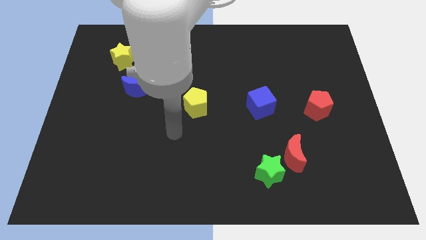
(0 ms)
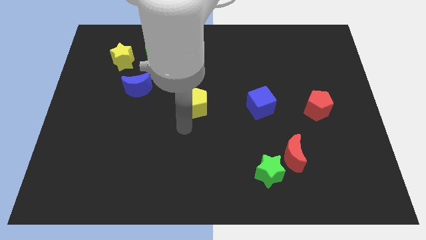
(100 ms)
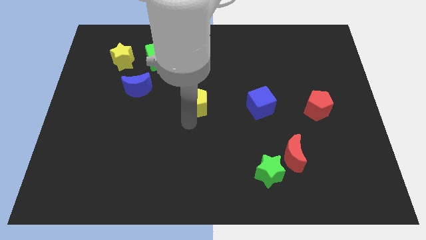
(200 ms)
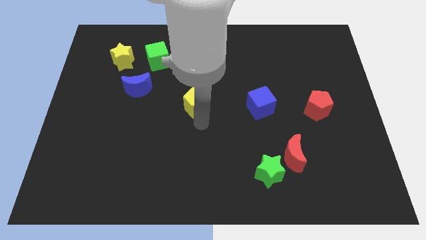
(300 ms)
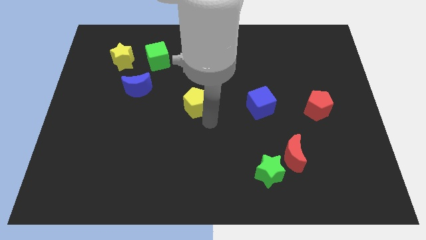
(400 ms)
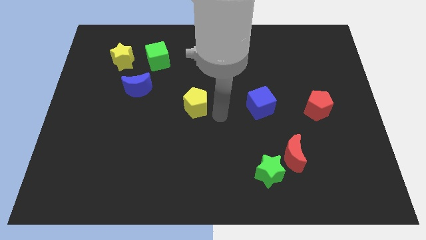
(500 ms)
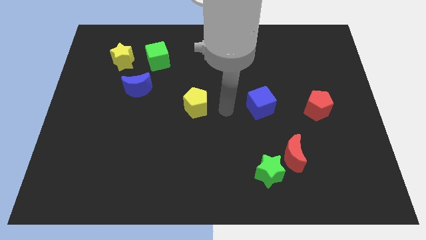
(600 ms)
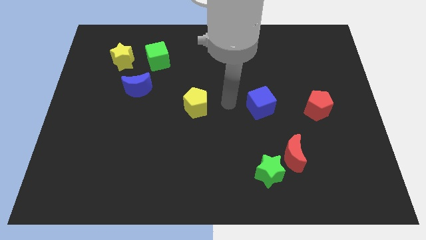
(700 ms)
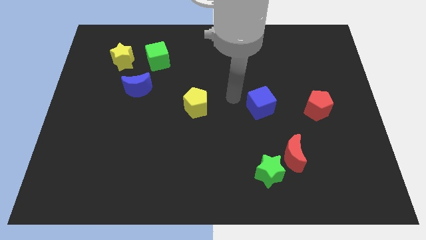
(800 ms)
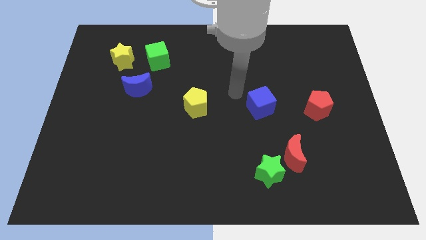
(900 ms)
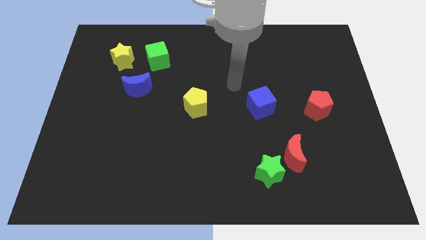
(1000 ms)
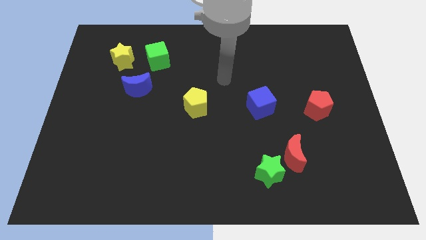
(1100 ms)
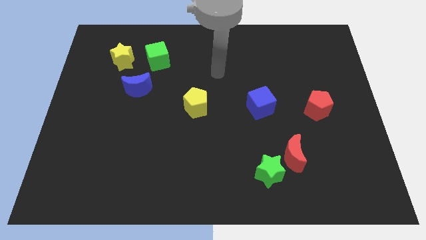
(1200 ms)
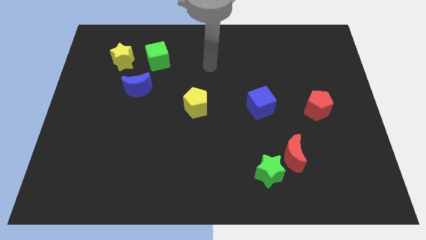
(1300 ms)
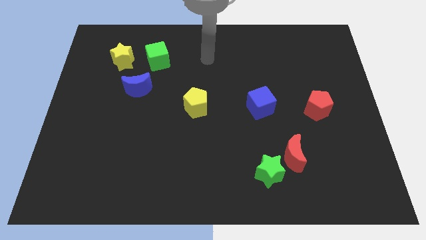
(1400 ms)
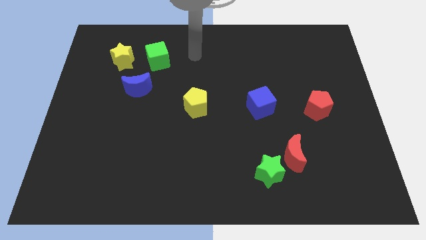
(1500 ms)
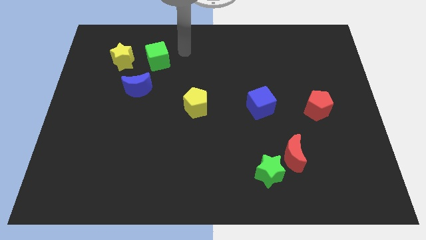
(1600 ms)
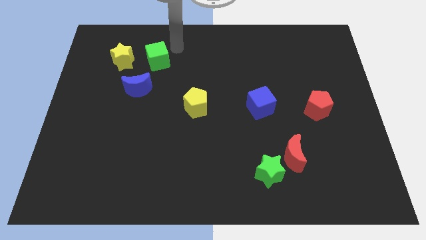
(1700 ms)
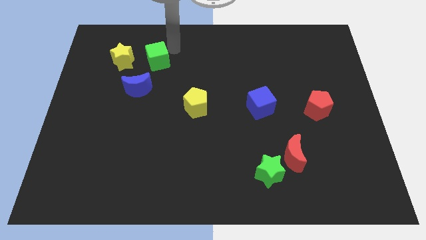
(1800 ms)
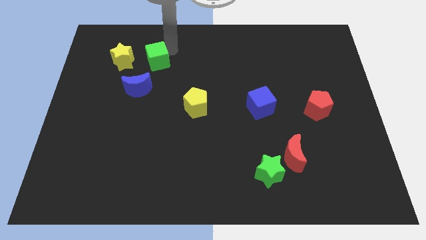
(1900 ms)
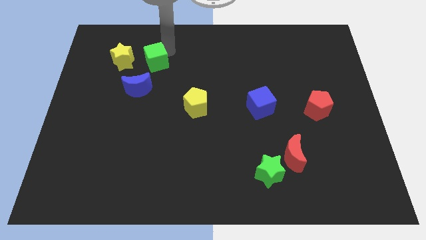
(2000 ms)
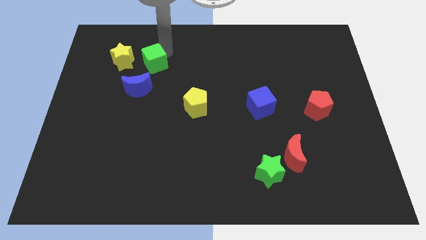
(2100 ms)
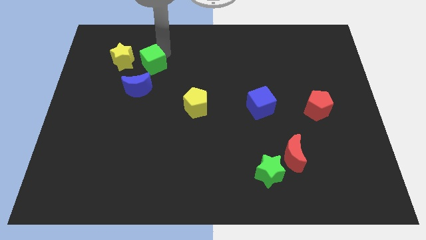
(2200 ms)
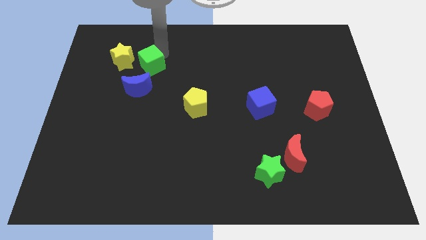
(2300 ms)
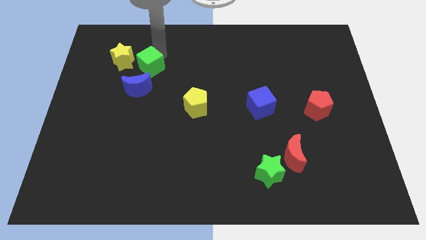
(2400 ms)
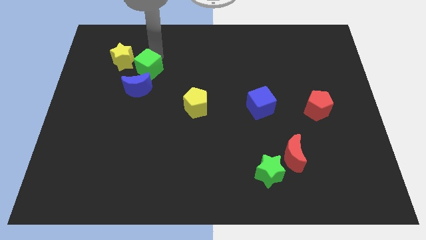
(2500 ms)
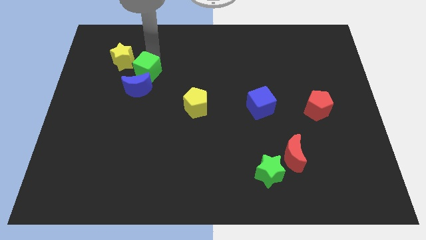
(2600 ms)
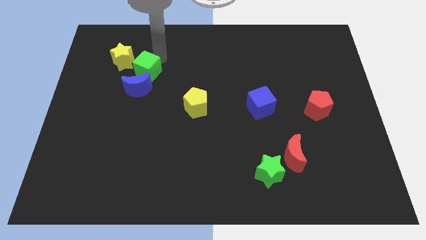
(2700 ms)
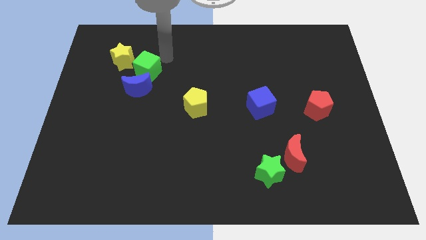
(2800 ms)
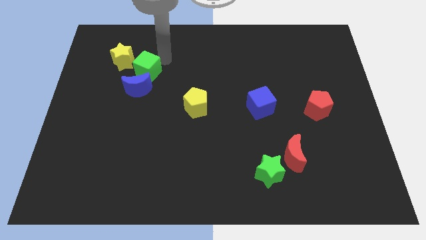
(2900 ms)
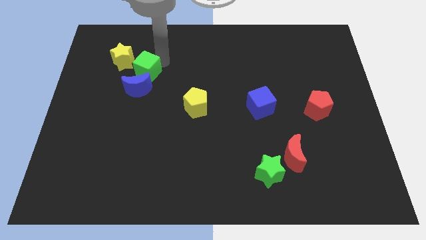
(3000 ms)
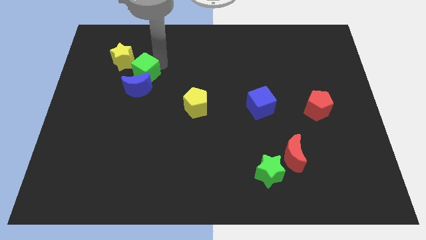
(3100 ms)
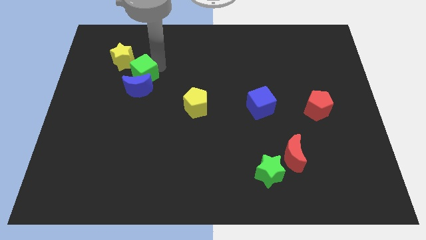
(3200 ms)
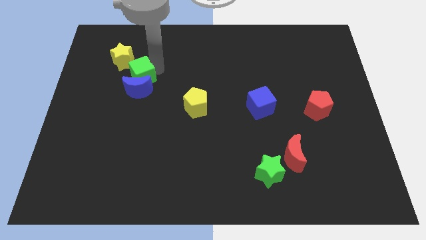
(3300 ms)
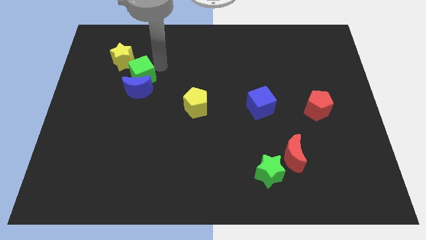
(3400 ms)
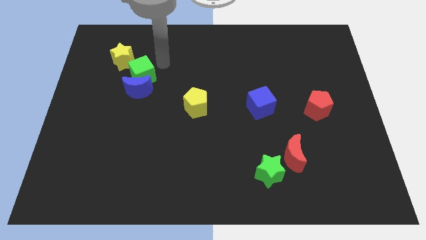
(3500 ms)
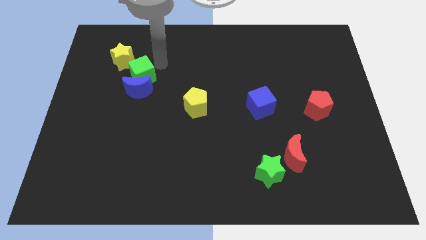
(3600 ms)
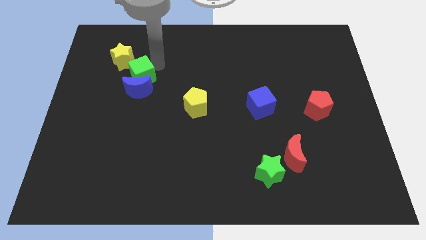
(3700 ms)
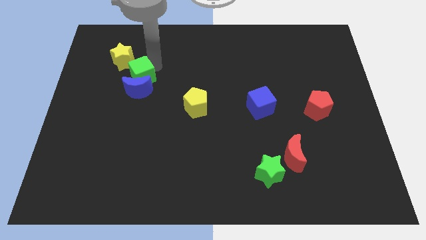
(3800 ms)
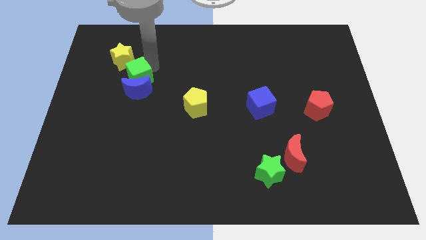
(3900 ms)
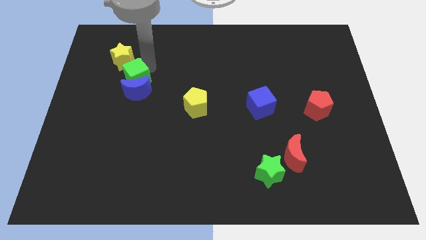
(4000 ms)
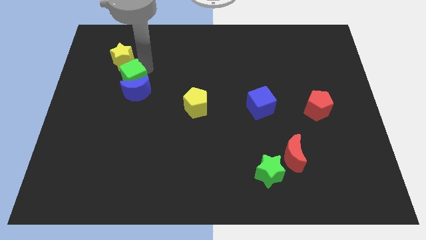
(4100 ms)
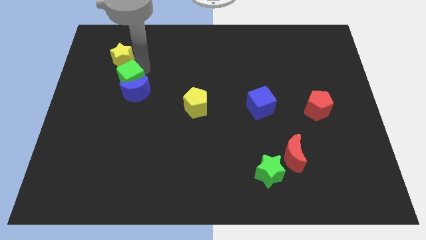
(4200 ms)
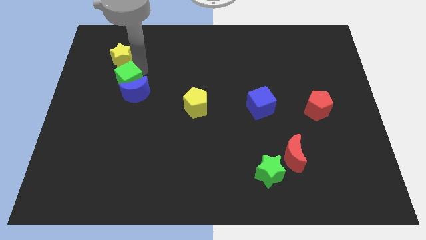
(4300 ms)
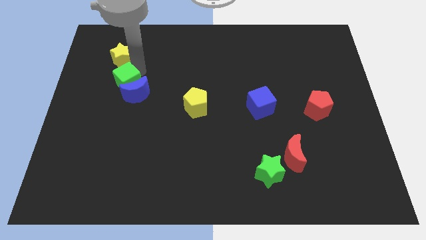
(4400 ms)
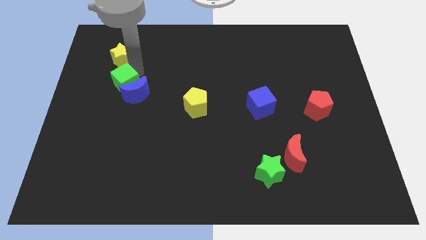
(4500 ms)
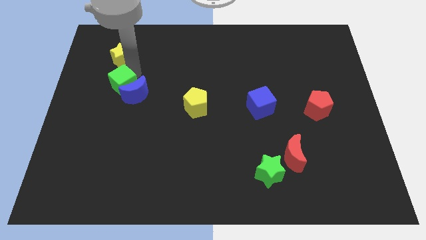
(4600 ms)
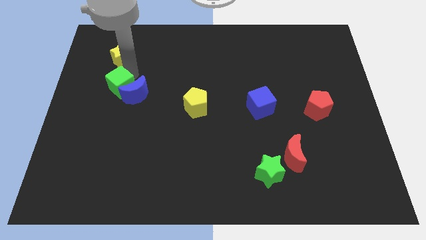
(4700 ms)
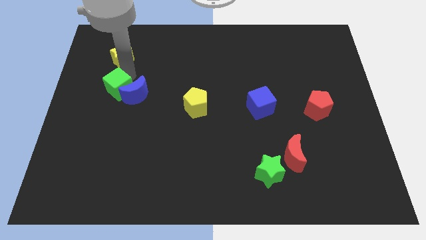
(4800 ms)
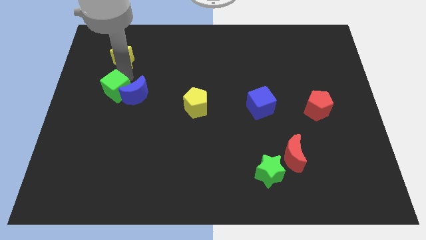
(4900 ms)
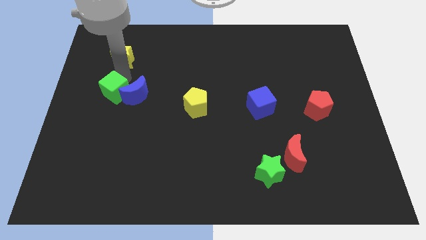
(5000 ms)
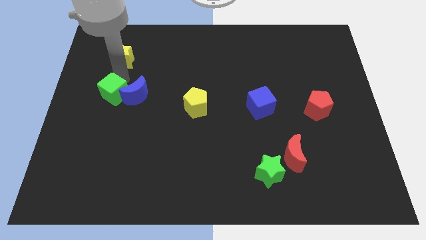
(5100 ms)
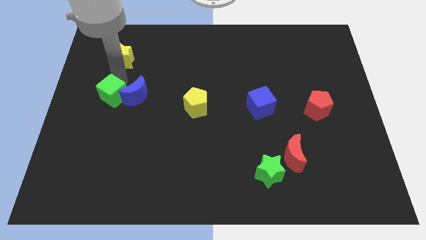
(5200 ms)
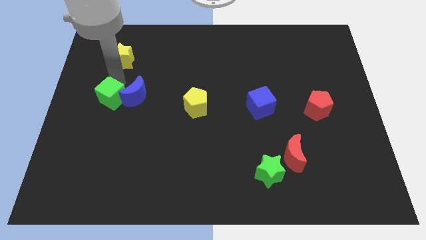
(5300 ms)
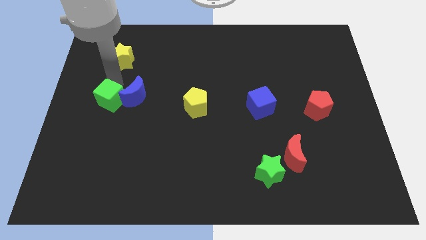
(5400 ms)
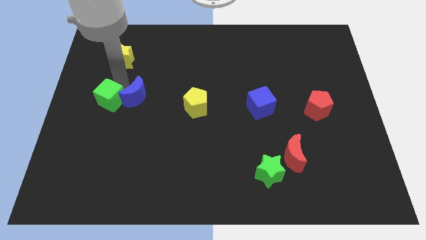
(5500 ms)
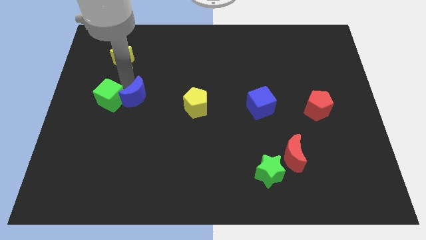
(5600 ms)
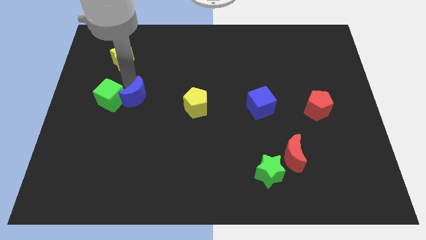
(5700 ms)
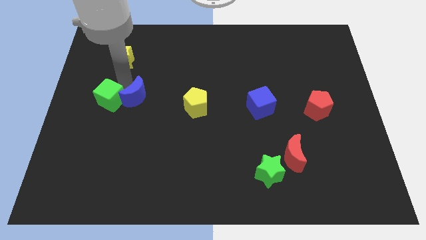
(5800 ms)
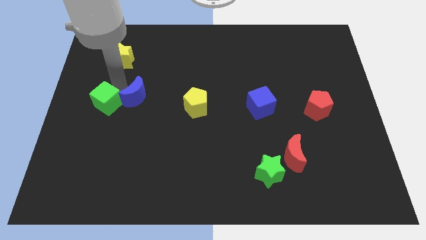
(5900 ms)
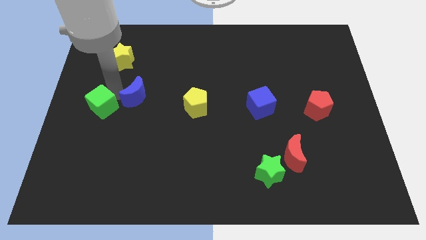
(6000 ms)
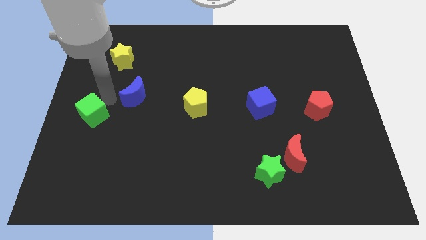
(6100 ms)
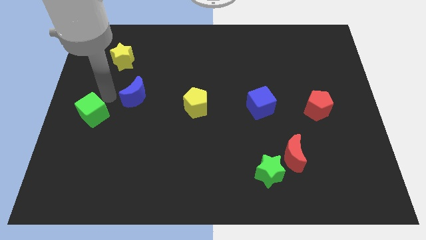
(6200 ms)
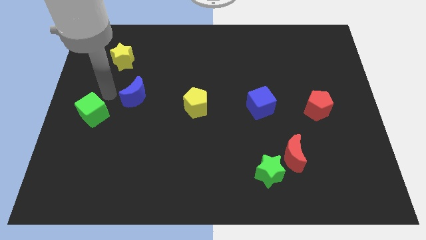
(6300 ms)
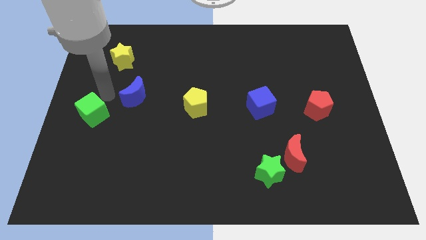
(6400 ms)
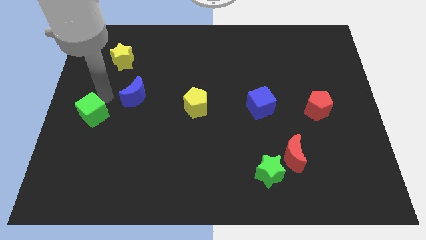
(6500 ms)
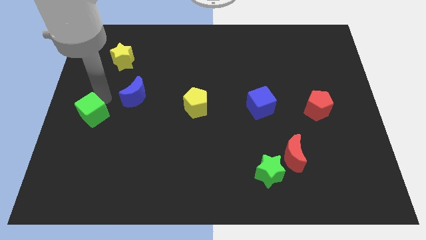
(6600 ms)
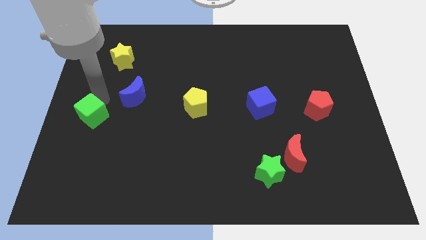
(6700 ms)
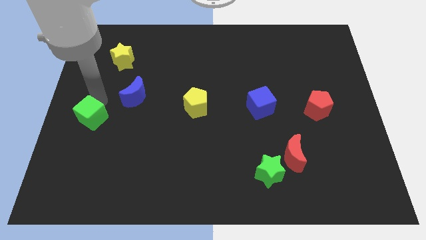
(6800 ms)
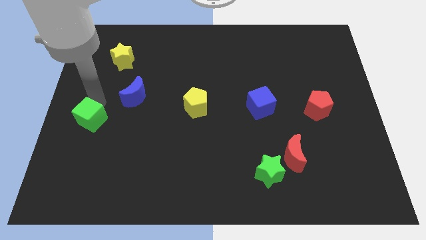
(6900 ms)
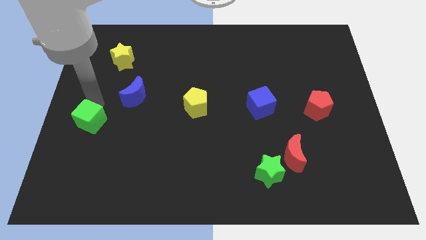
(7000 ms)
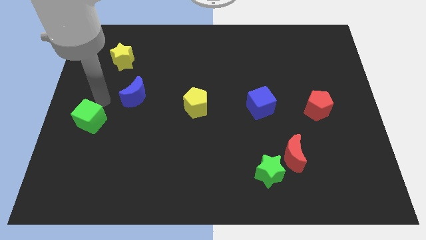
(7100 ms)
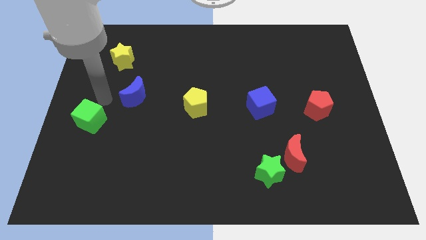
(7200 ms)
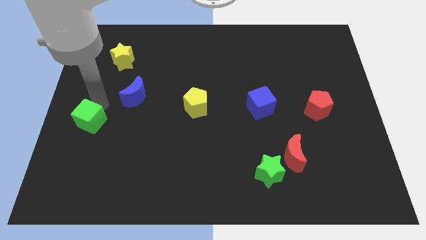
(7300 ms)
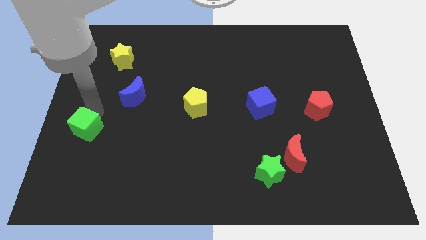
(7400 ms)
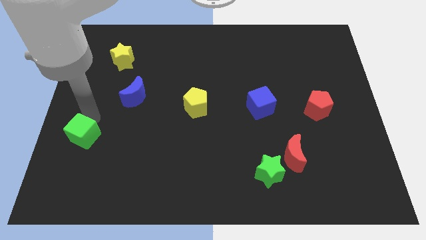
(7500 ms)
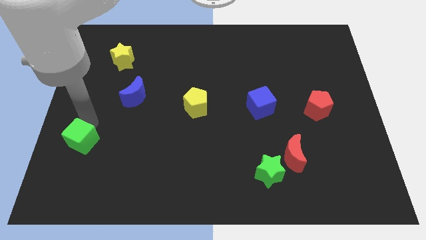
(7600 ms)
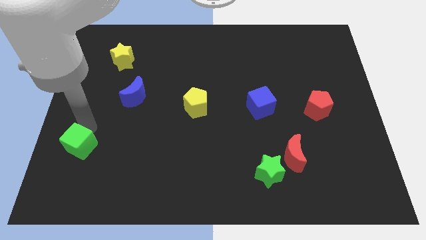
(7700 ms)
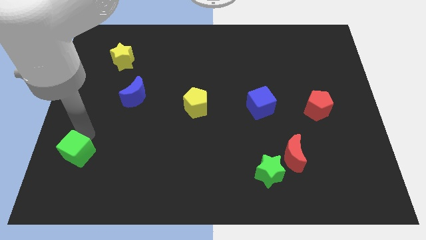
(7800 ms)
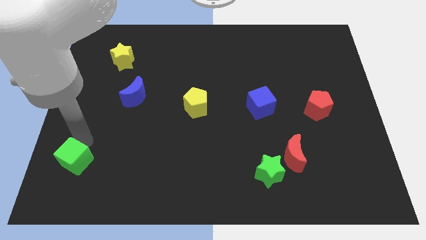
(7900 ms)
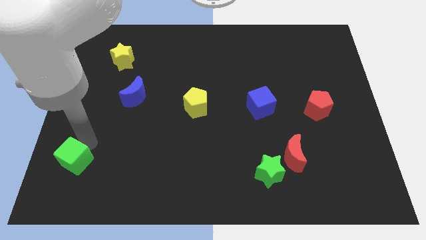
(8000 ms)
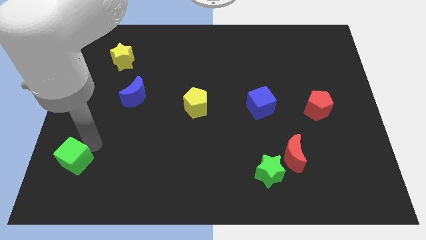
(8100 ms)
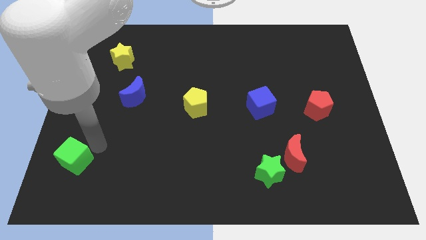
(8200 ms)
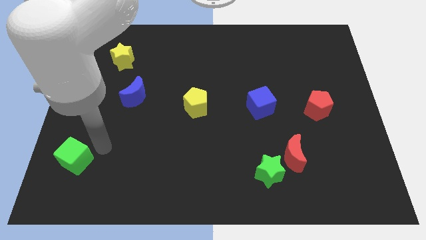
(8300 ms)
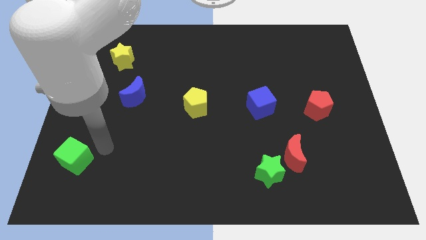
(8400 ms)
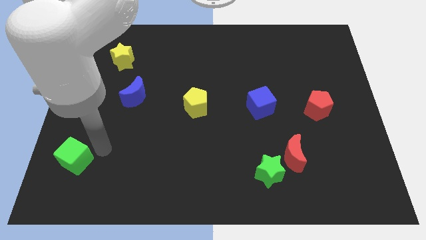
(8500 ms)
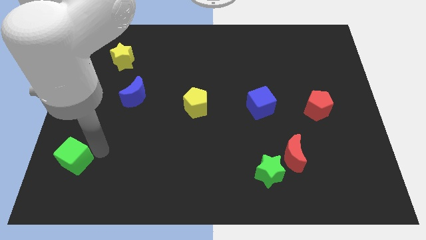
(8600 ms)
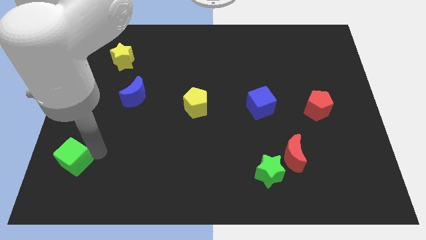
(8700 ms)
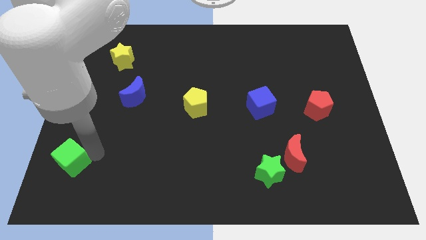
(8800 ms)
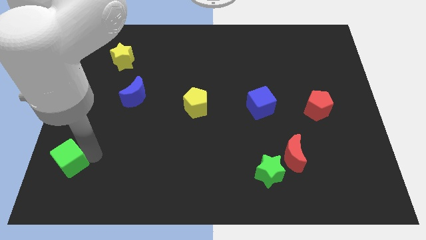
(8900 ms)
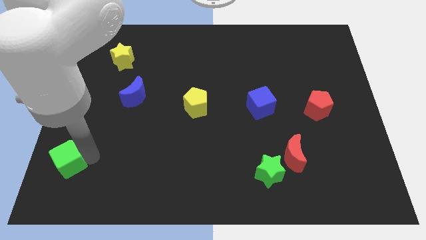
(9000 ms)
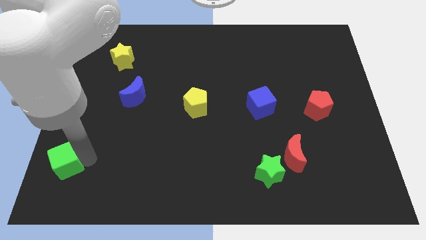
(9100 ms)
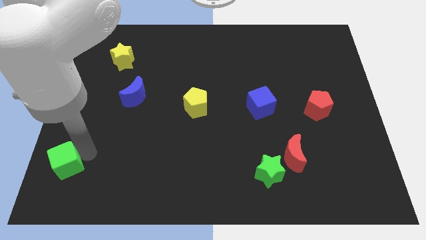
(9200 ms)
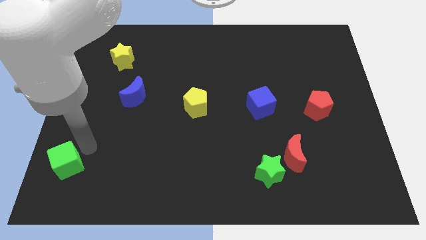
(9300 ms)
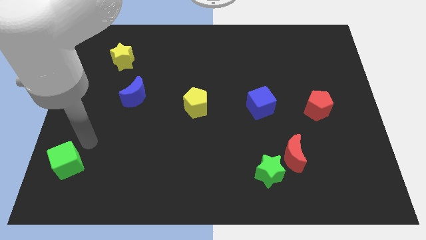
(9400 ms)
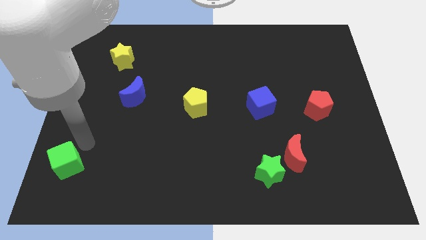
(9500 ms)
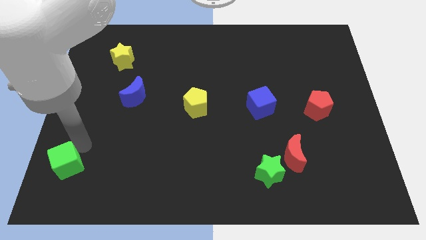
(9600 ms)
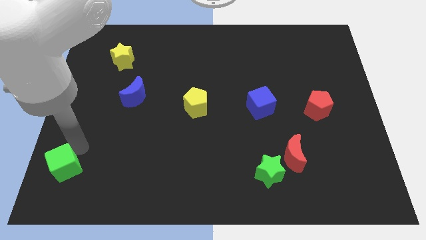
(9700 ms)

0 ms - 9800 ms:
slide the green cube to the bottom left of the board
